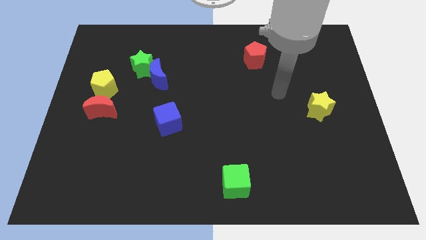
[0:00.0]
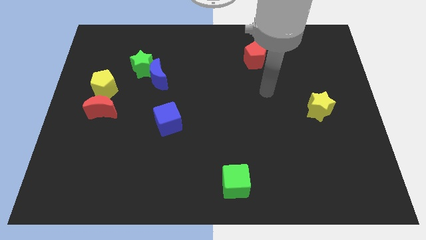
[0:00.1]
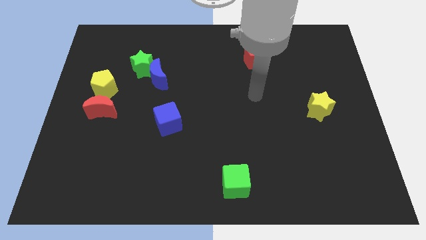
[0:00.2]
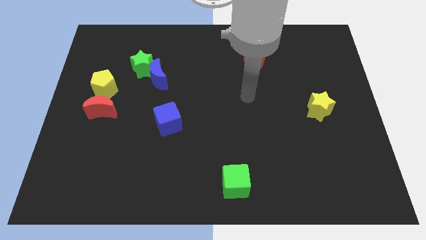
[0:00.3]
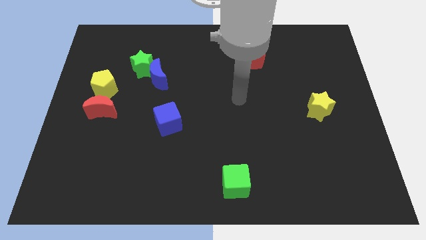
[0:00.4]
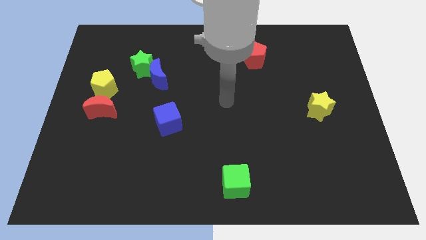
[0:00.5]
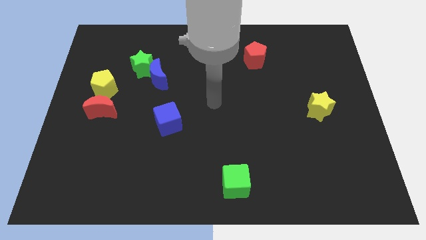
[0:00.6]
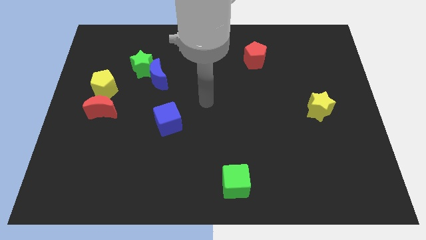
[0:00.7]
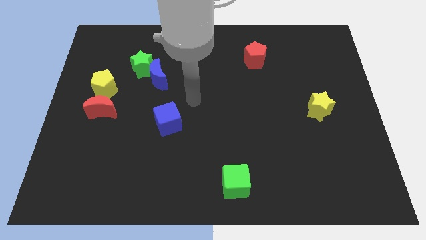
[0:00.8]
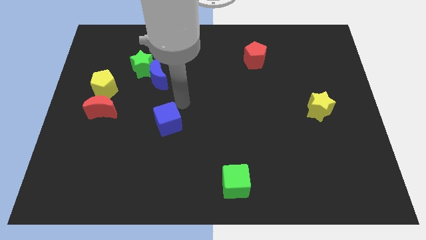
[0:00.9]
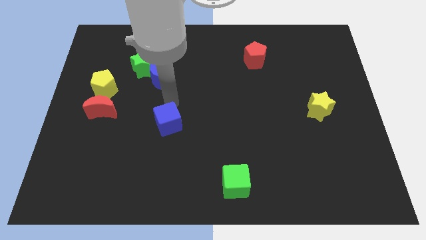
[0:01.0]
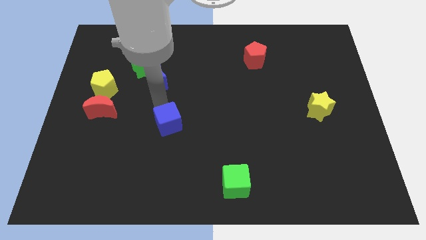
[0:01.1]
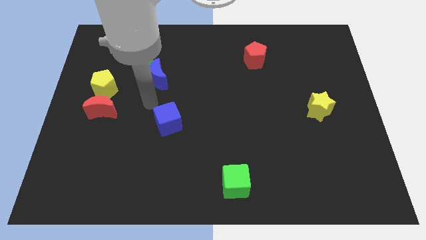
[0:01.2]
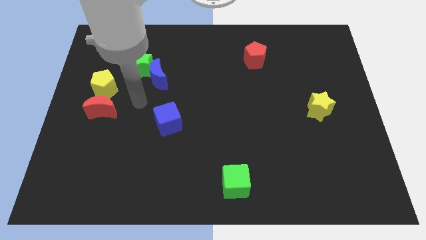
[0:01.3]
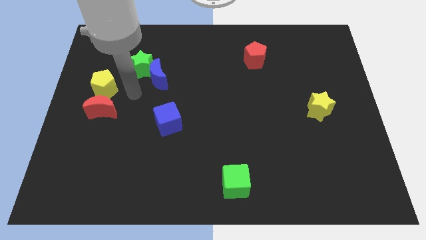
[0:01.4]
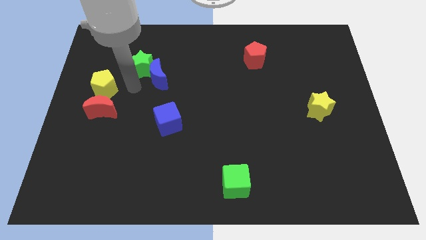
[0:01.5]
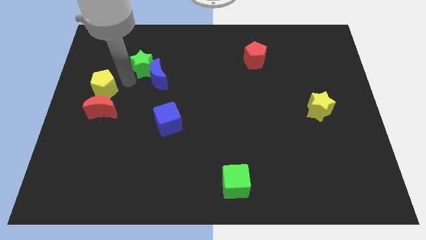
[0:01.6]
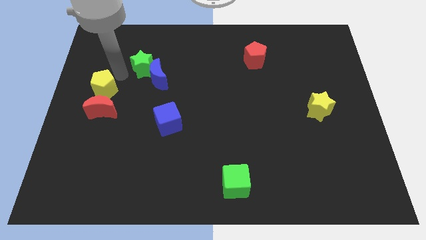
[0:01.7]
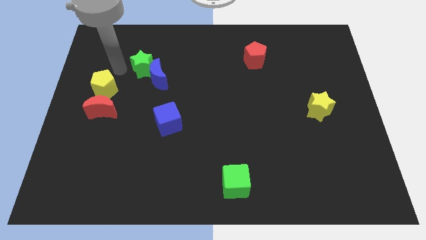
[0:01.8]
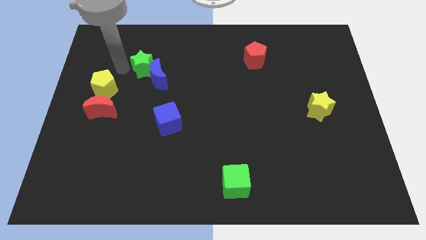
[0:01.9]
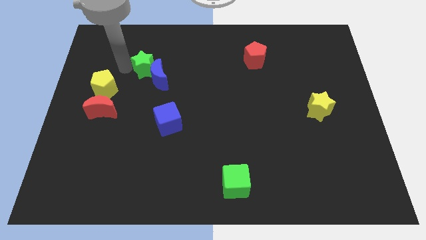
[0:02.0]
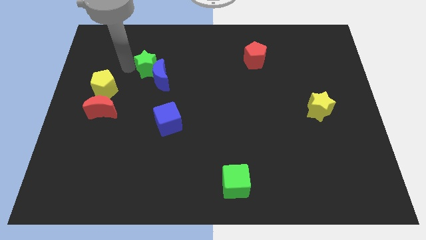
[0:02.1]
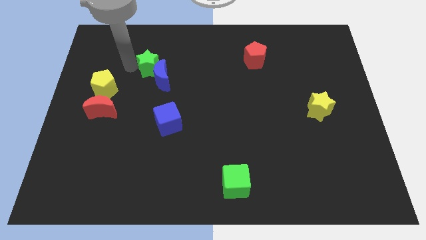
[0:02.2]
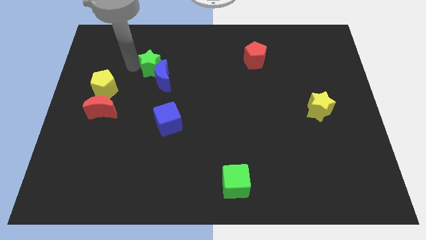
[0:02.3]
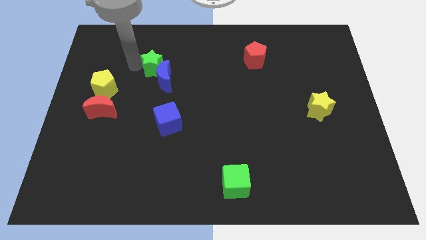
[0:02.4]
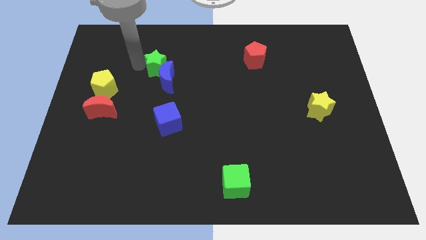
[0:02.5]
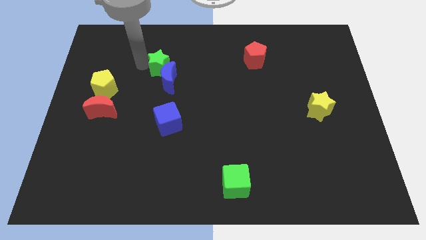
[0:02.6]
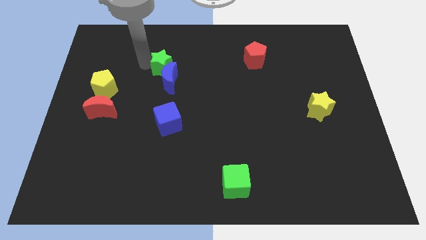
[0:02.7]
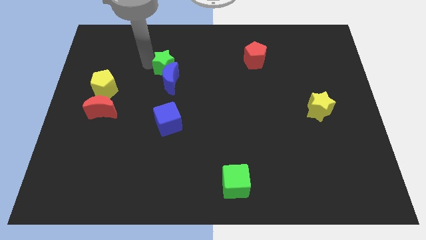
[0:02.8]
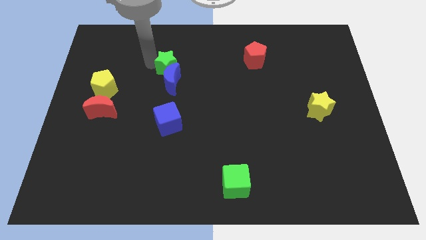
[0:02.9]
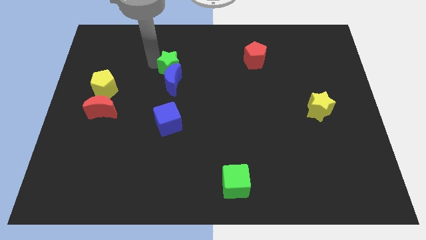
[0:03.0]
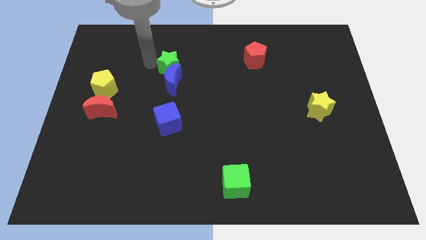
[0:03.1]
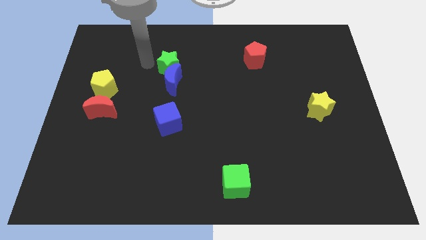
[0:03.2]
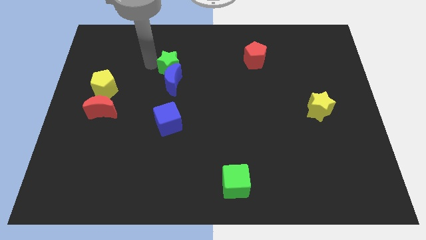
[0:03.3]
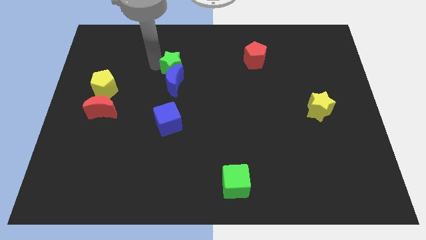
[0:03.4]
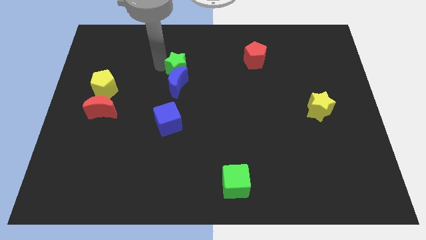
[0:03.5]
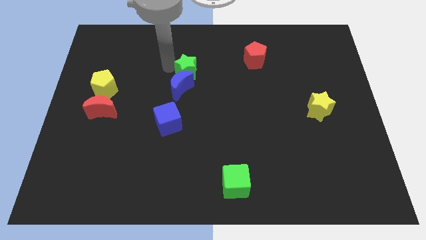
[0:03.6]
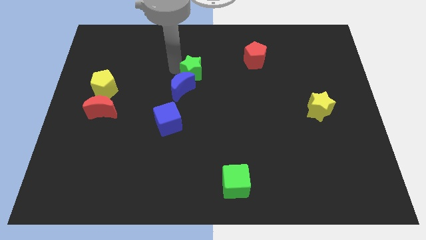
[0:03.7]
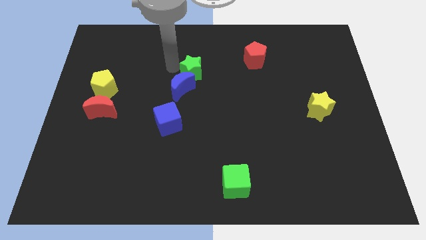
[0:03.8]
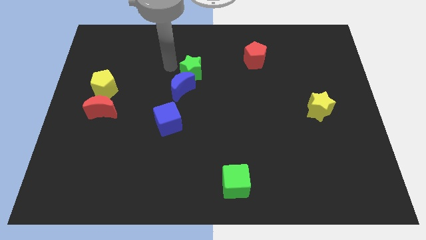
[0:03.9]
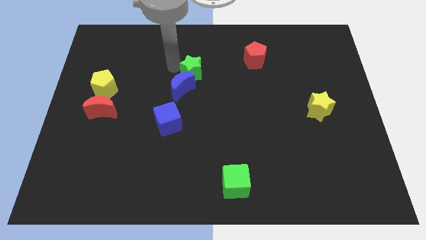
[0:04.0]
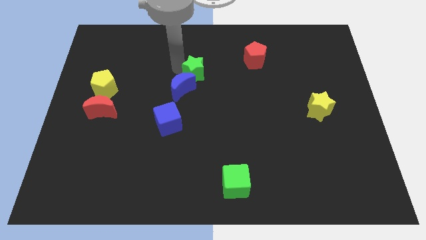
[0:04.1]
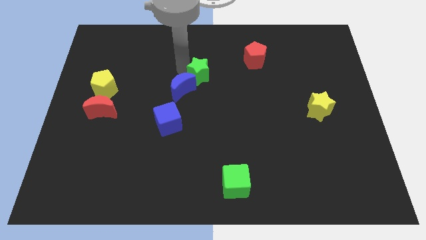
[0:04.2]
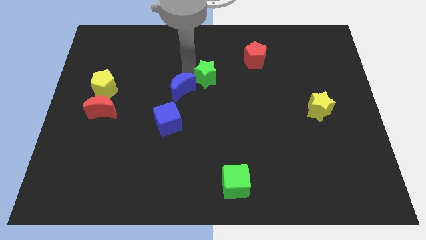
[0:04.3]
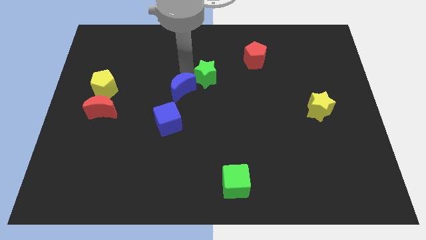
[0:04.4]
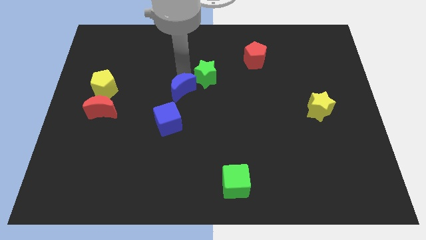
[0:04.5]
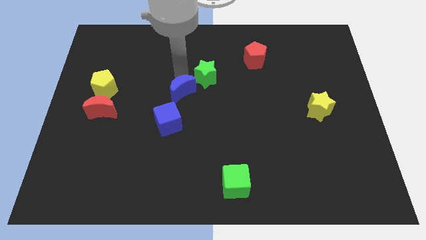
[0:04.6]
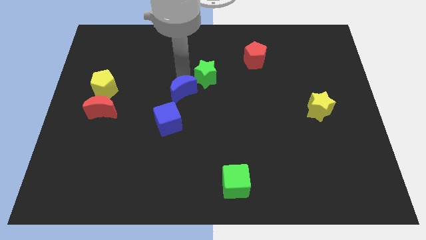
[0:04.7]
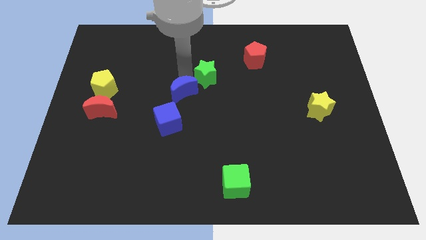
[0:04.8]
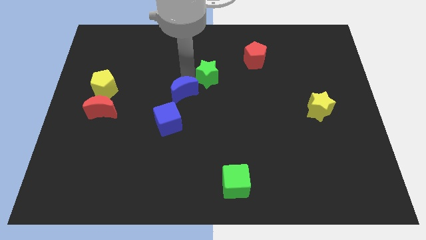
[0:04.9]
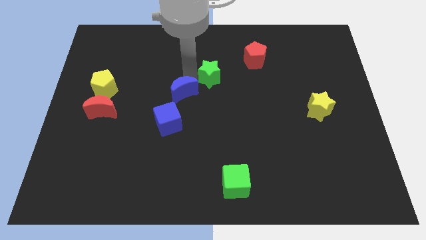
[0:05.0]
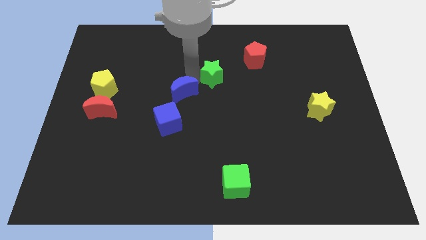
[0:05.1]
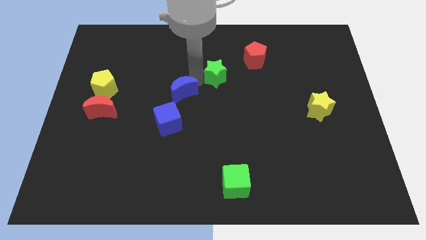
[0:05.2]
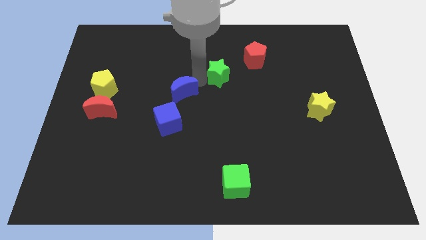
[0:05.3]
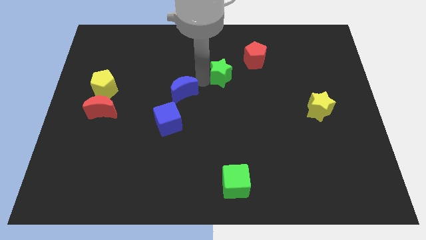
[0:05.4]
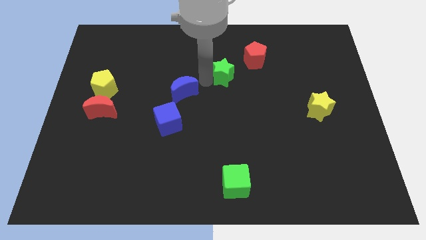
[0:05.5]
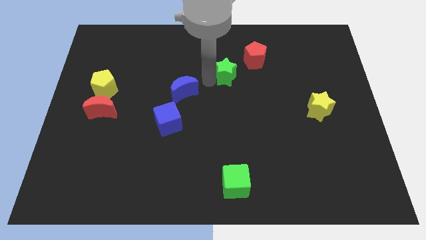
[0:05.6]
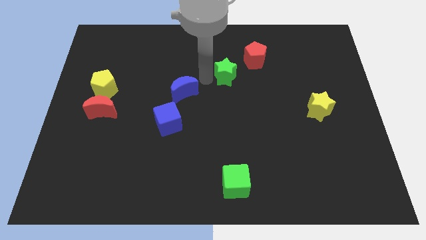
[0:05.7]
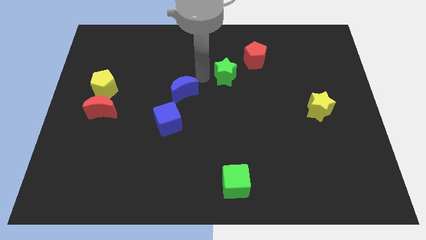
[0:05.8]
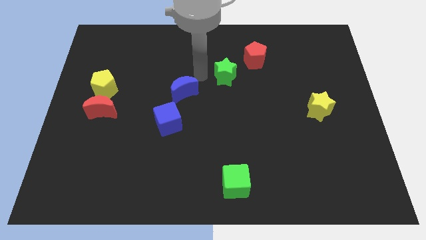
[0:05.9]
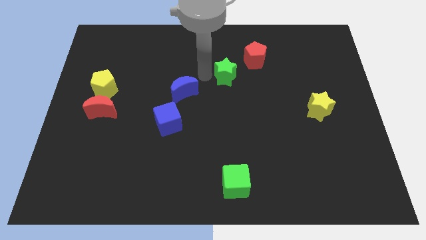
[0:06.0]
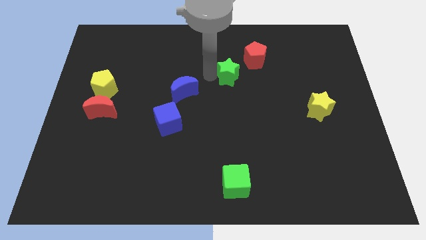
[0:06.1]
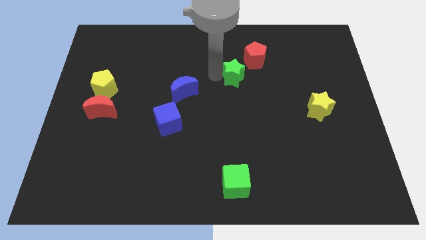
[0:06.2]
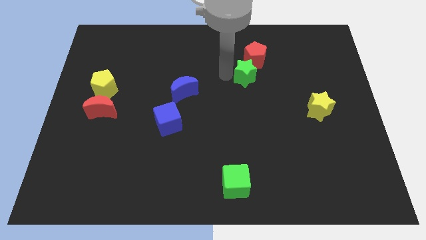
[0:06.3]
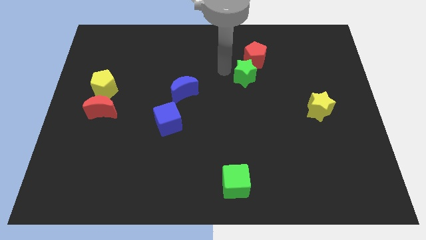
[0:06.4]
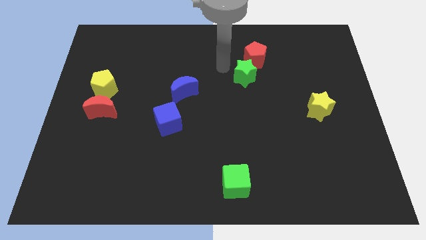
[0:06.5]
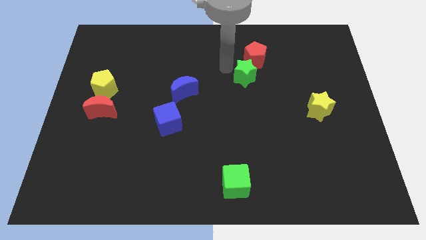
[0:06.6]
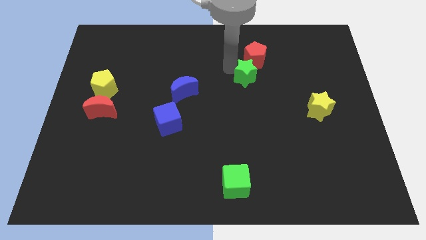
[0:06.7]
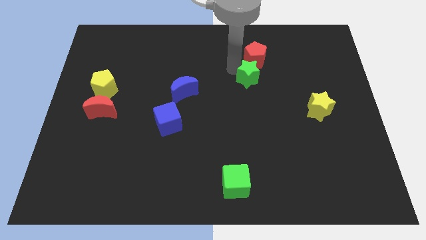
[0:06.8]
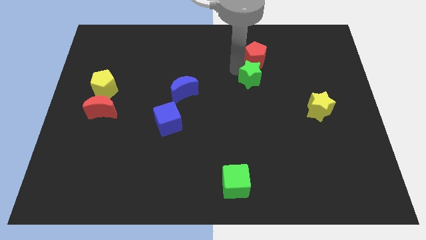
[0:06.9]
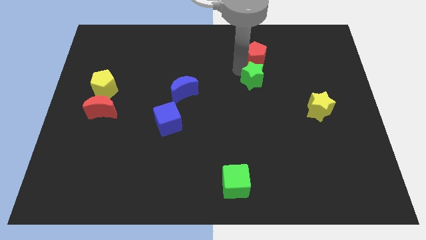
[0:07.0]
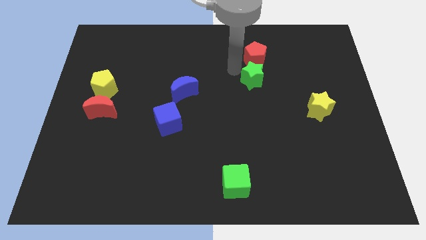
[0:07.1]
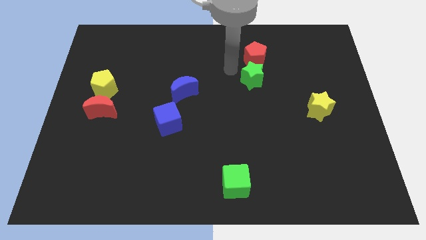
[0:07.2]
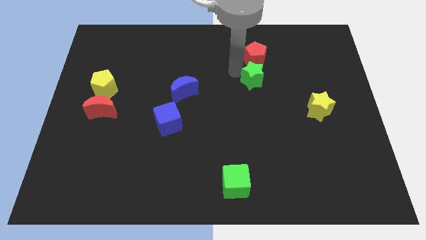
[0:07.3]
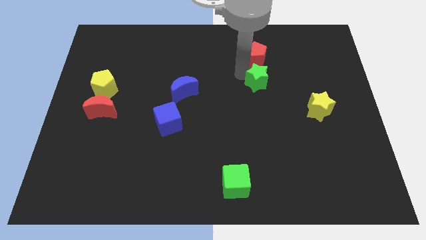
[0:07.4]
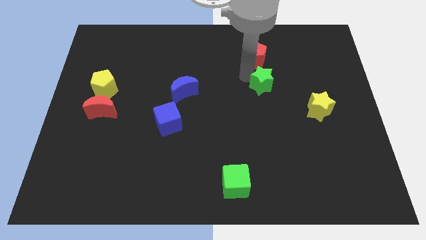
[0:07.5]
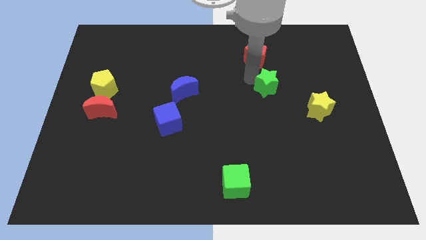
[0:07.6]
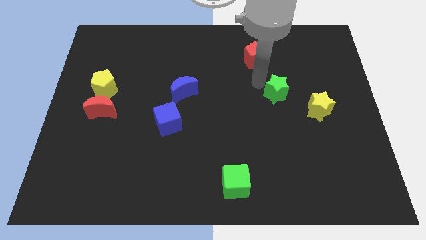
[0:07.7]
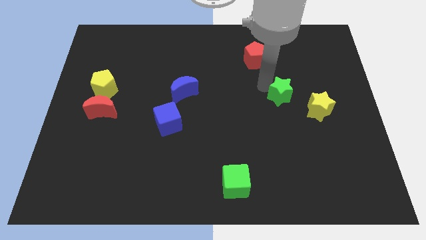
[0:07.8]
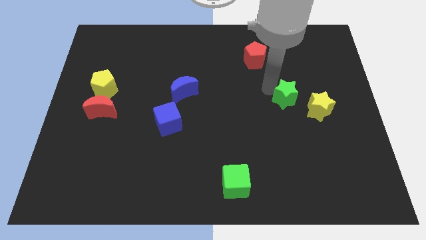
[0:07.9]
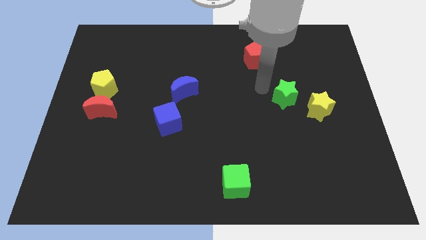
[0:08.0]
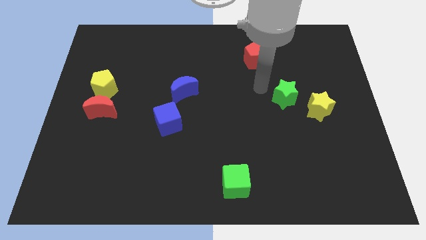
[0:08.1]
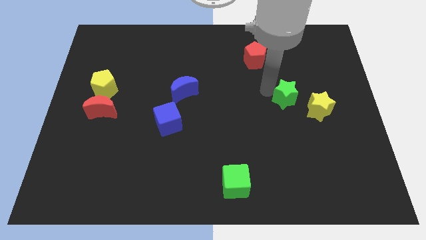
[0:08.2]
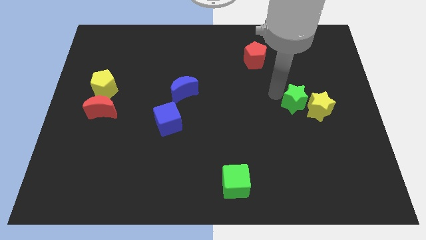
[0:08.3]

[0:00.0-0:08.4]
move the green star towards the yellow star
